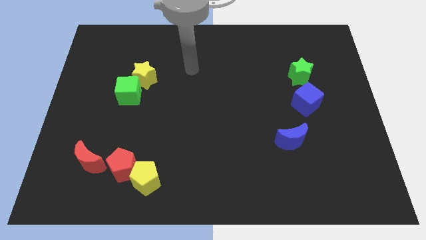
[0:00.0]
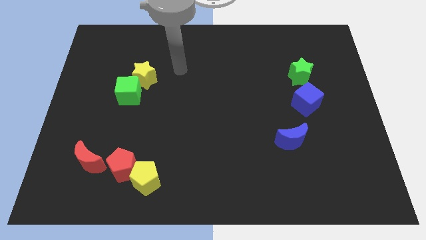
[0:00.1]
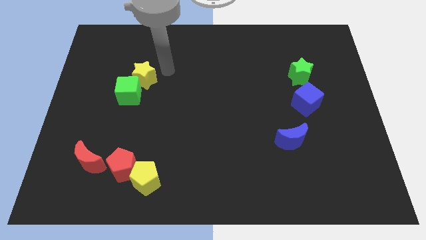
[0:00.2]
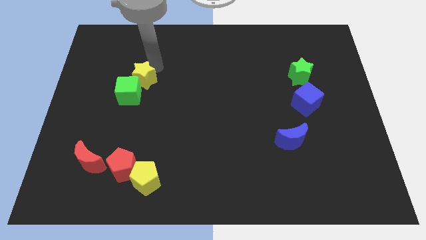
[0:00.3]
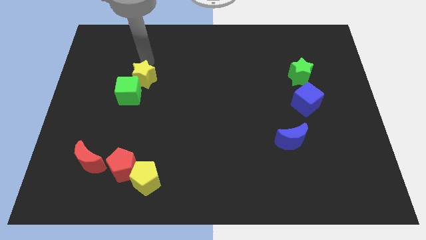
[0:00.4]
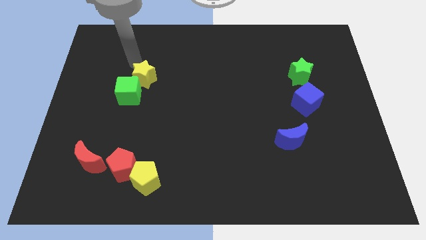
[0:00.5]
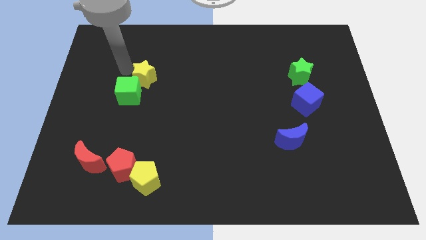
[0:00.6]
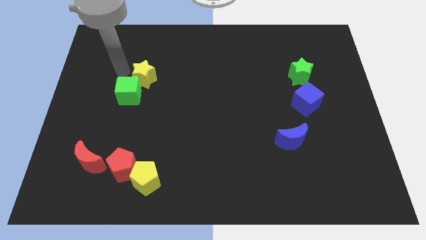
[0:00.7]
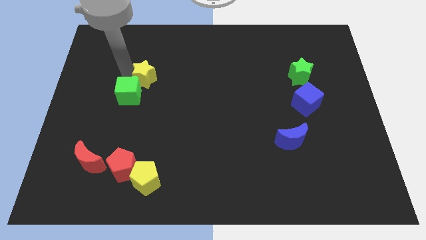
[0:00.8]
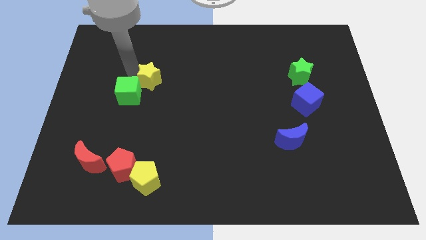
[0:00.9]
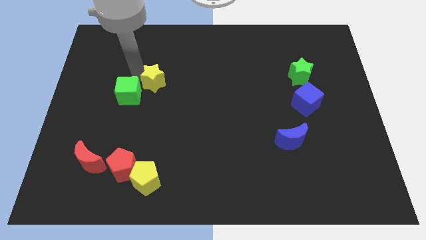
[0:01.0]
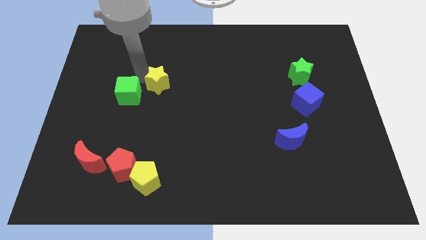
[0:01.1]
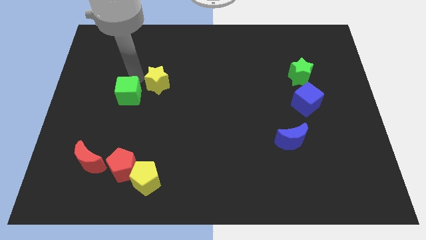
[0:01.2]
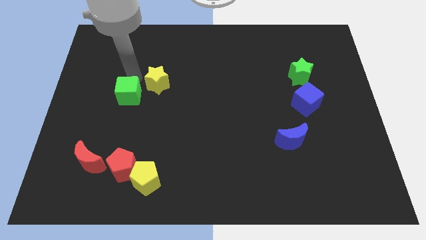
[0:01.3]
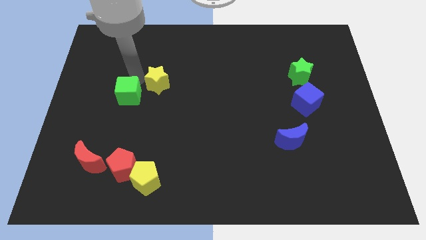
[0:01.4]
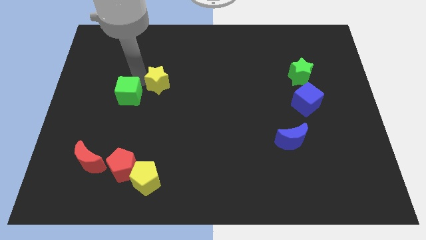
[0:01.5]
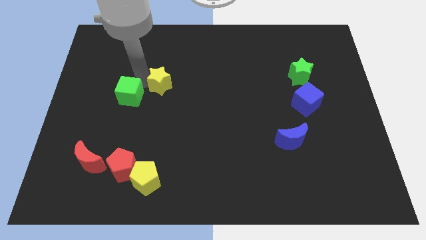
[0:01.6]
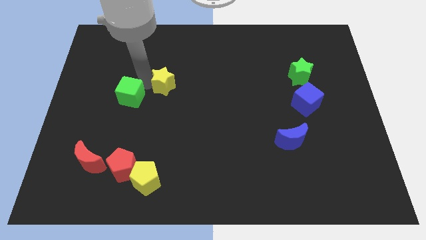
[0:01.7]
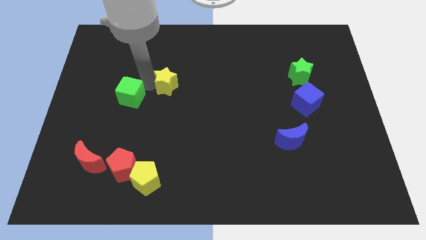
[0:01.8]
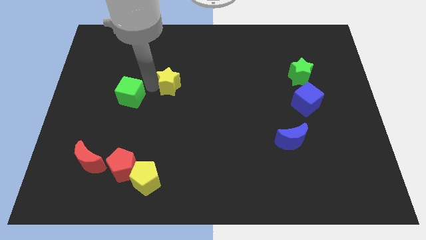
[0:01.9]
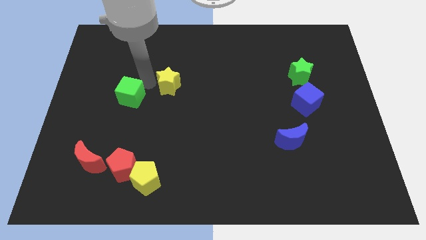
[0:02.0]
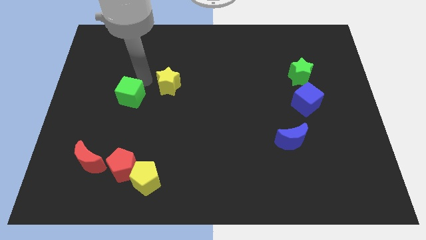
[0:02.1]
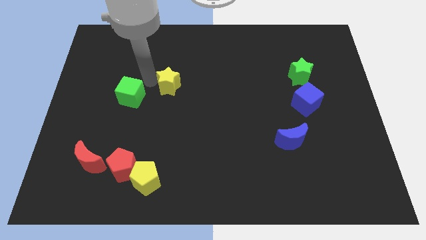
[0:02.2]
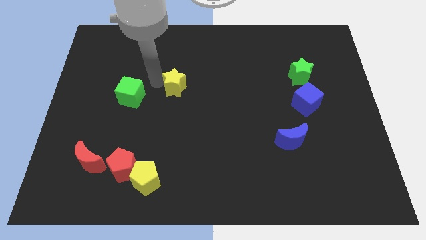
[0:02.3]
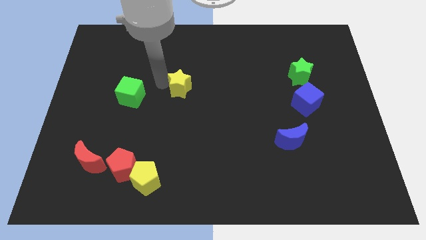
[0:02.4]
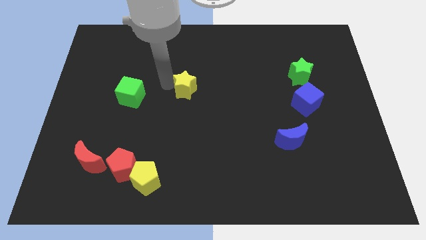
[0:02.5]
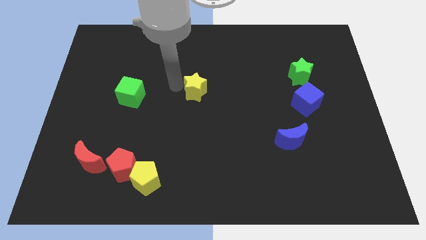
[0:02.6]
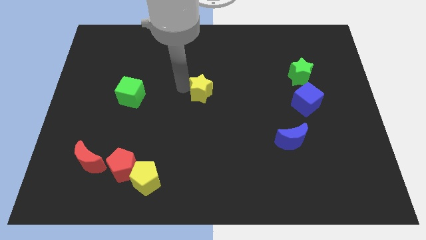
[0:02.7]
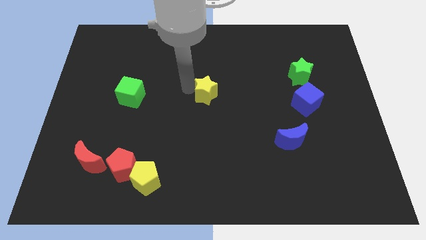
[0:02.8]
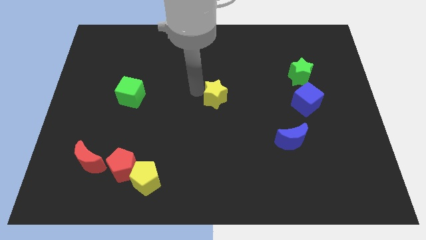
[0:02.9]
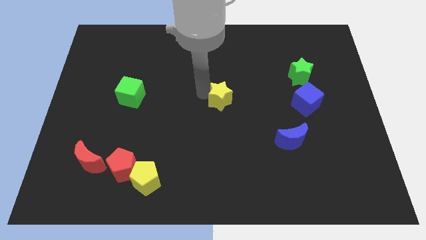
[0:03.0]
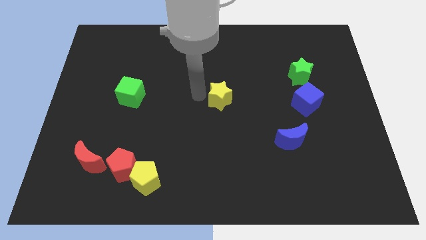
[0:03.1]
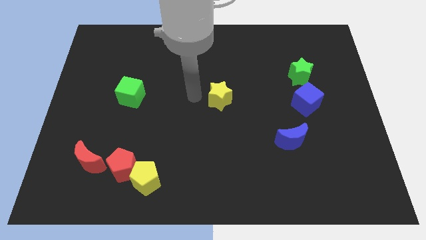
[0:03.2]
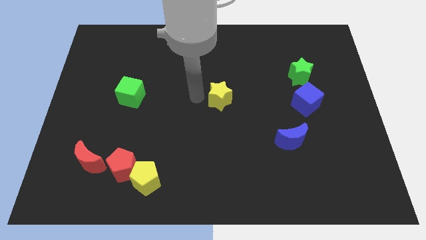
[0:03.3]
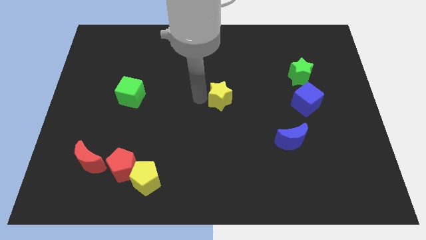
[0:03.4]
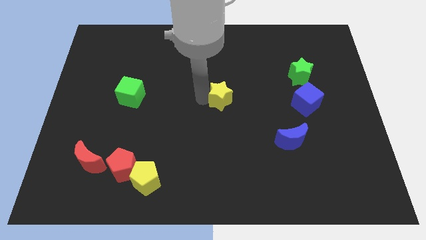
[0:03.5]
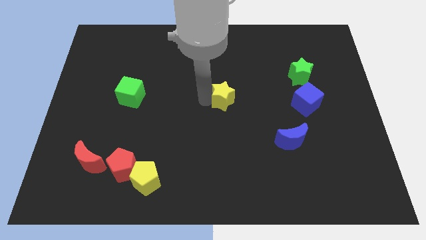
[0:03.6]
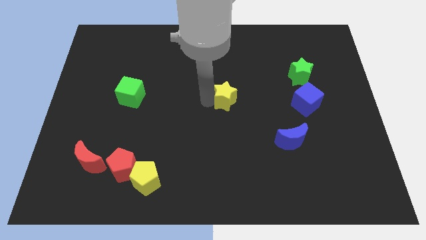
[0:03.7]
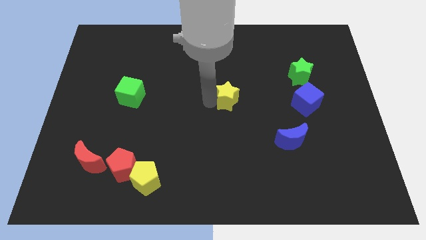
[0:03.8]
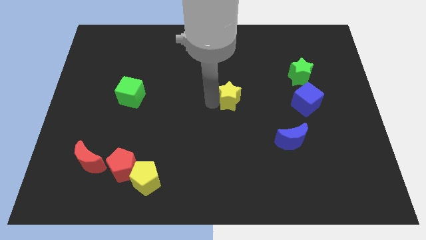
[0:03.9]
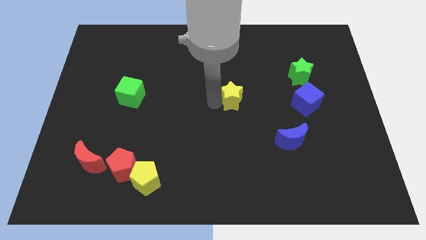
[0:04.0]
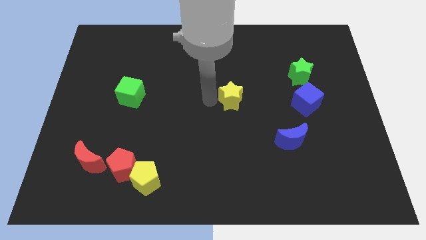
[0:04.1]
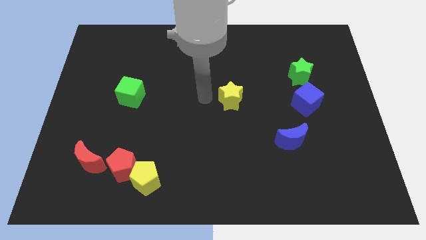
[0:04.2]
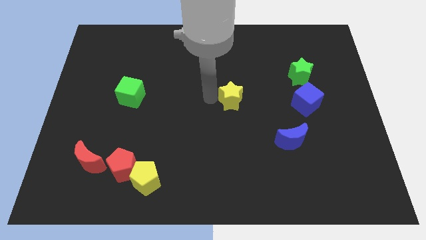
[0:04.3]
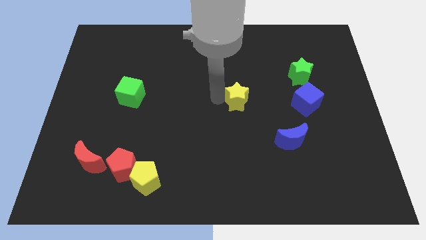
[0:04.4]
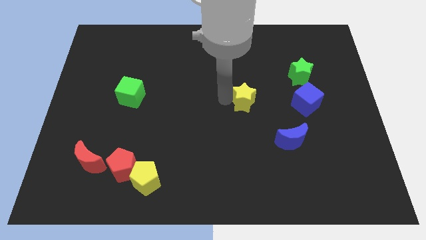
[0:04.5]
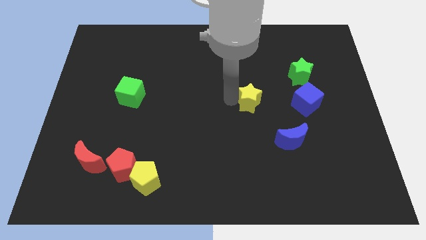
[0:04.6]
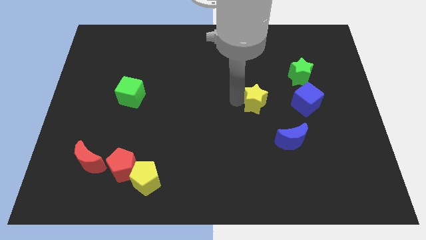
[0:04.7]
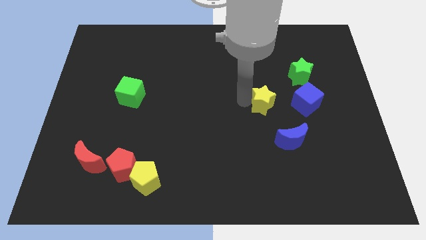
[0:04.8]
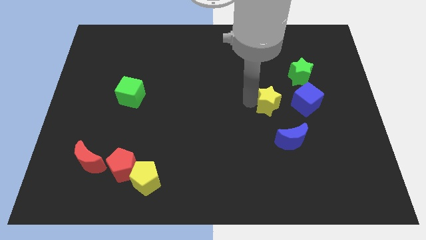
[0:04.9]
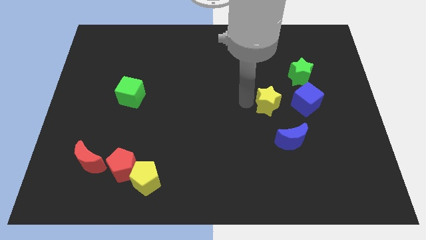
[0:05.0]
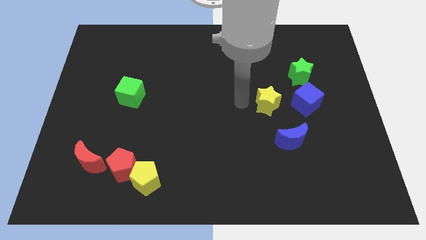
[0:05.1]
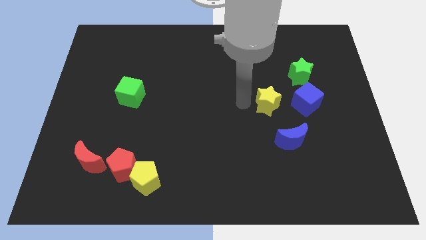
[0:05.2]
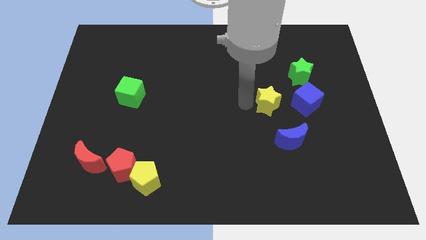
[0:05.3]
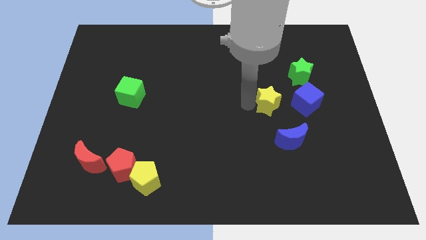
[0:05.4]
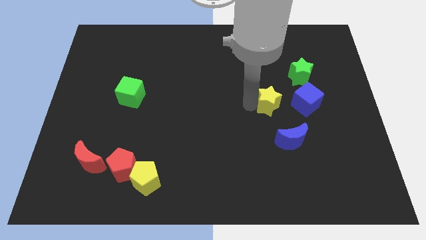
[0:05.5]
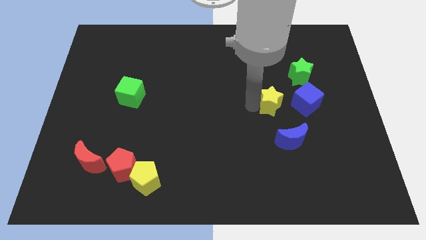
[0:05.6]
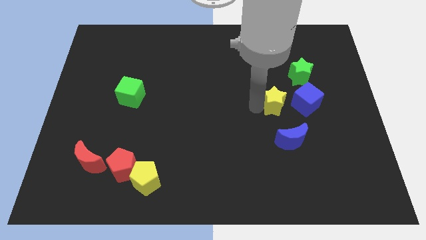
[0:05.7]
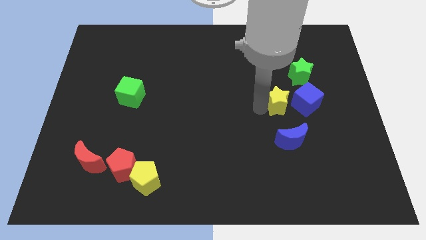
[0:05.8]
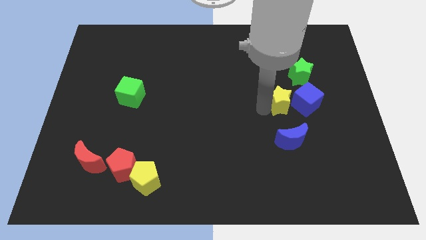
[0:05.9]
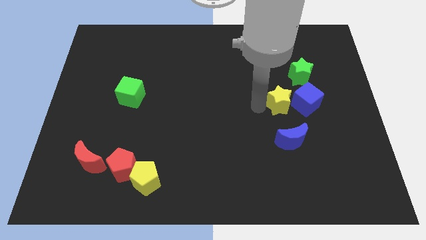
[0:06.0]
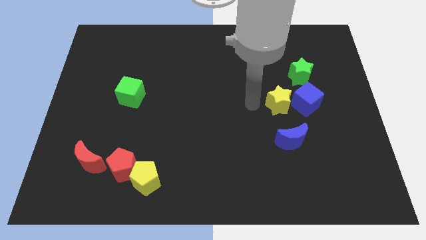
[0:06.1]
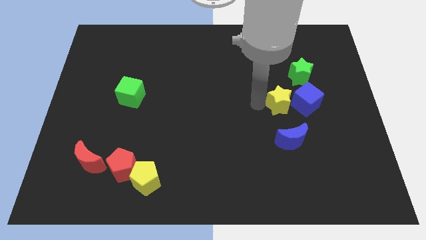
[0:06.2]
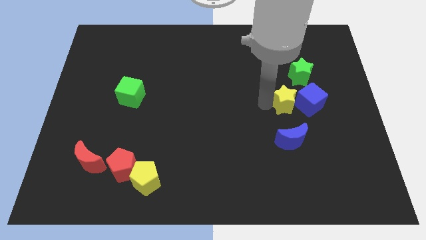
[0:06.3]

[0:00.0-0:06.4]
put the yellow star towards the blue cube

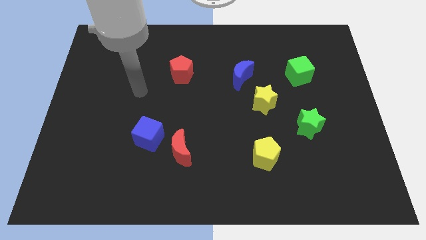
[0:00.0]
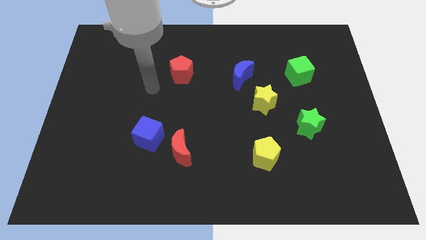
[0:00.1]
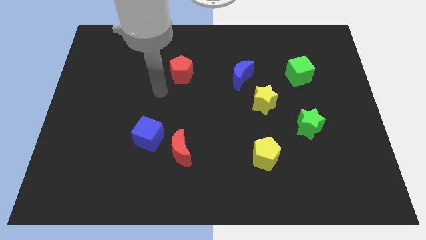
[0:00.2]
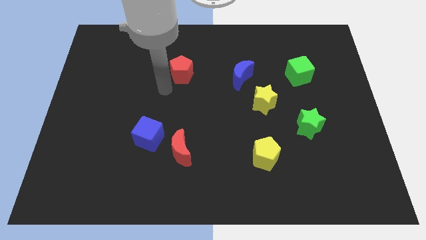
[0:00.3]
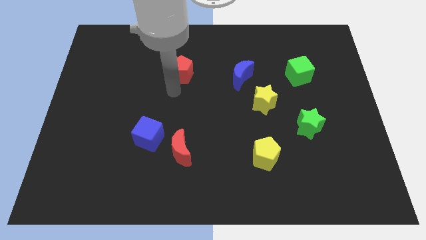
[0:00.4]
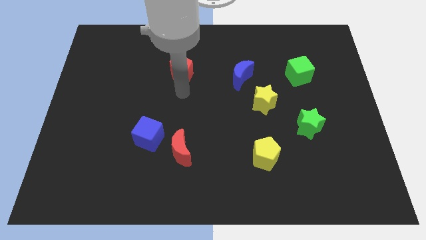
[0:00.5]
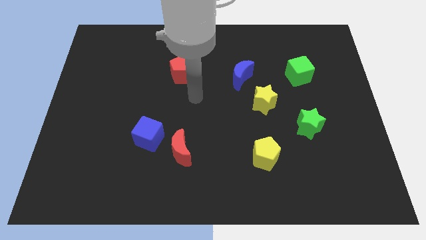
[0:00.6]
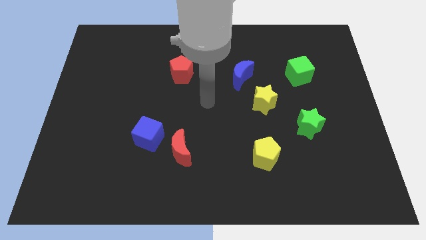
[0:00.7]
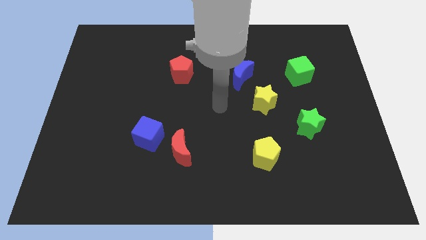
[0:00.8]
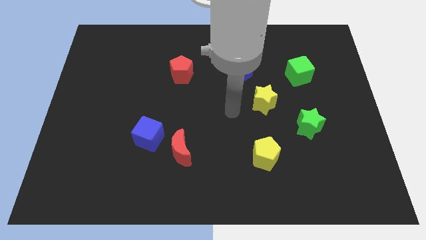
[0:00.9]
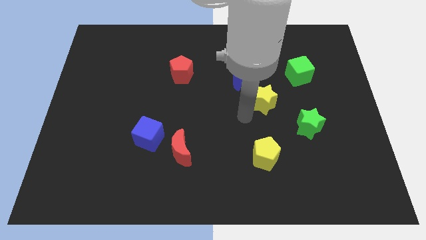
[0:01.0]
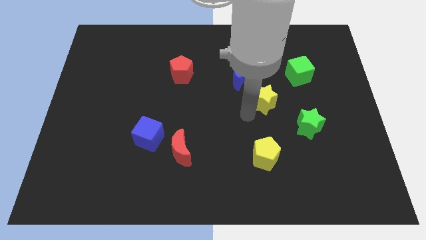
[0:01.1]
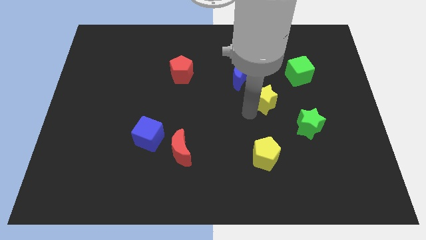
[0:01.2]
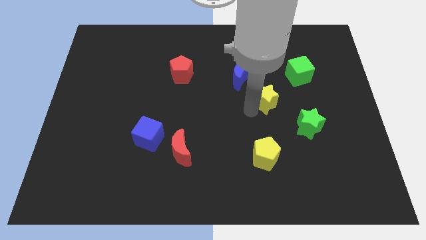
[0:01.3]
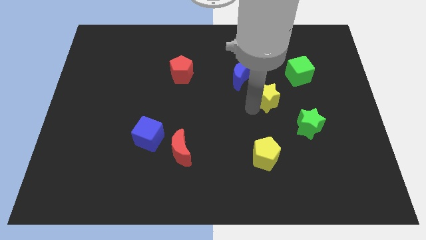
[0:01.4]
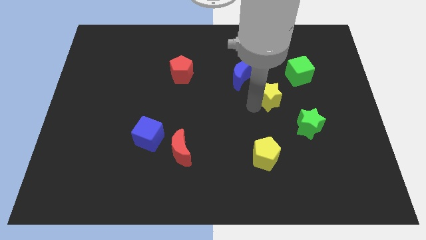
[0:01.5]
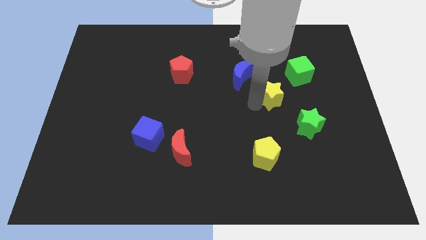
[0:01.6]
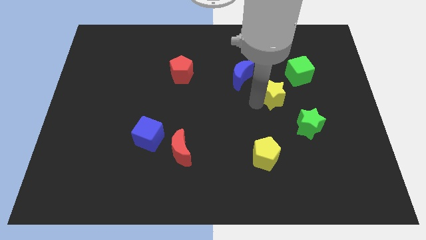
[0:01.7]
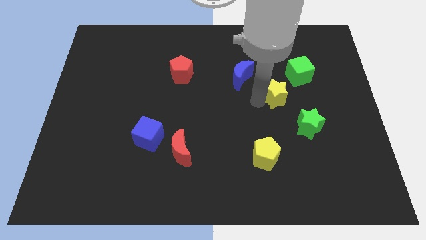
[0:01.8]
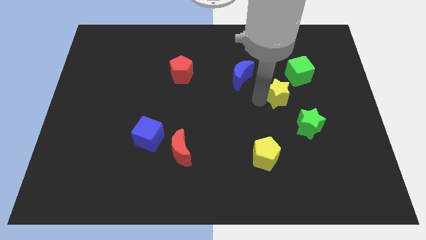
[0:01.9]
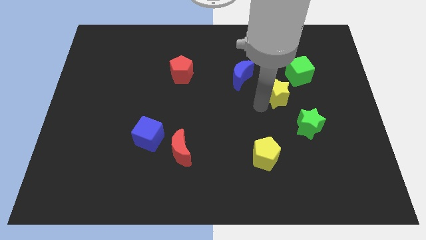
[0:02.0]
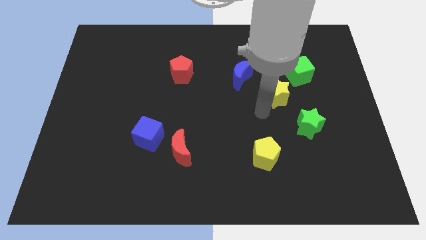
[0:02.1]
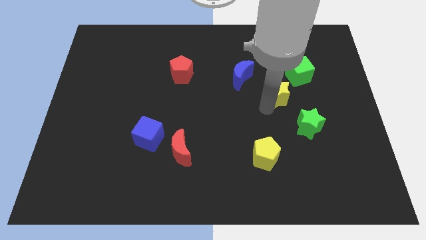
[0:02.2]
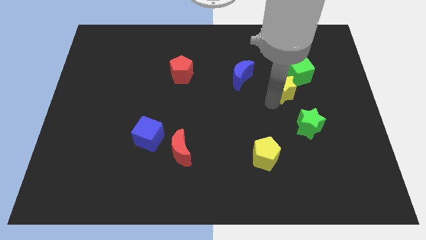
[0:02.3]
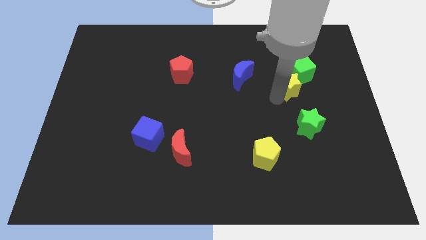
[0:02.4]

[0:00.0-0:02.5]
move the yellow star next to the green cube
